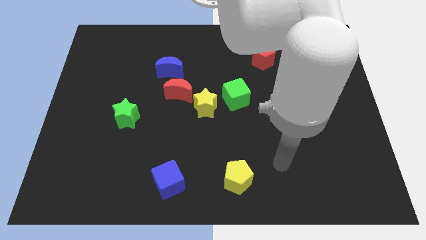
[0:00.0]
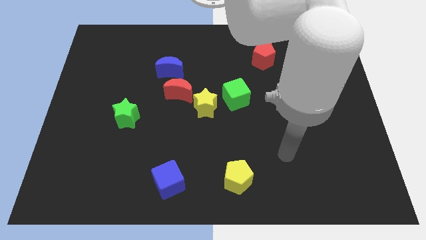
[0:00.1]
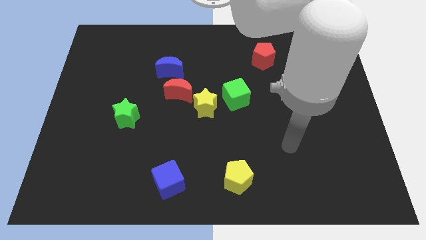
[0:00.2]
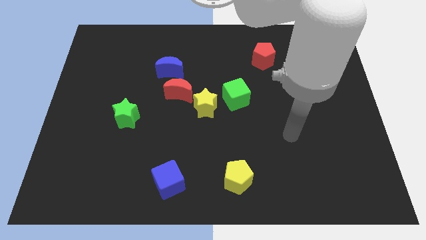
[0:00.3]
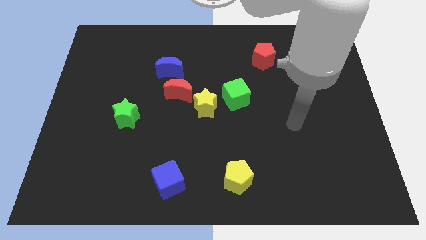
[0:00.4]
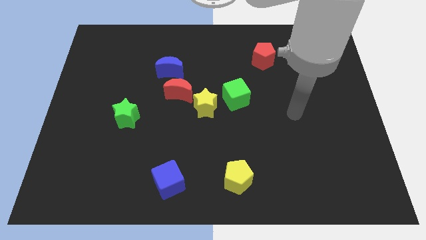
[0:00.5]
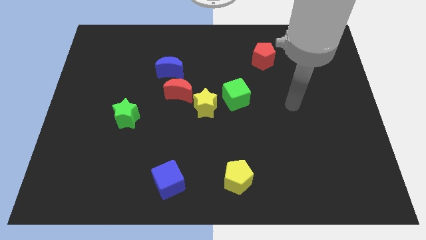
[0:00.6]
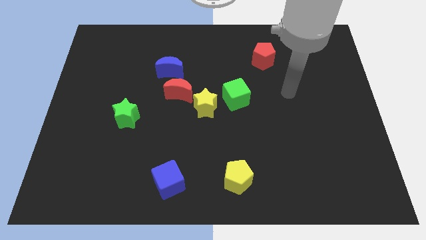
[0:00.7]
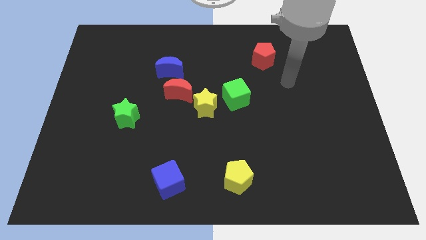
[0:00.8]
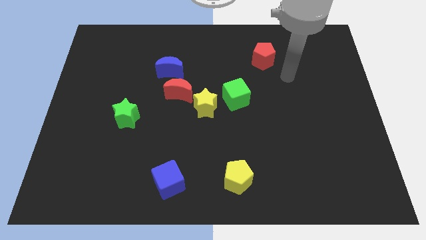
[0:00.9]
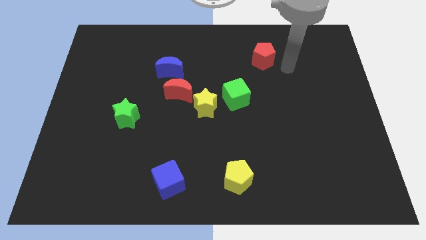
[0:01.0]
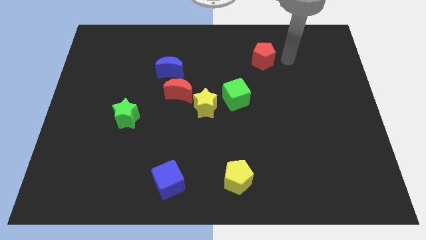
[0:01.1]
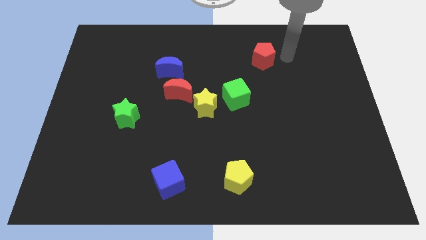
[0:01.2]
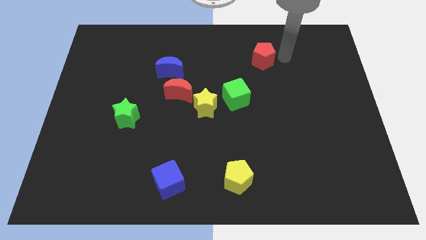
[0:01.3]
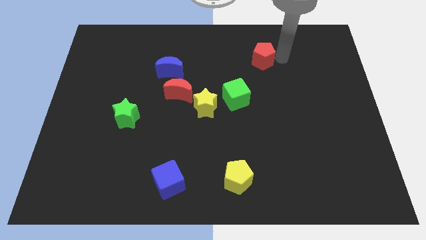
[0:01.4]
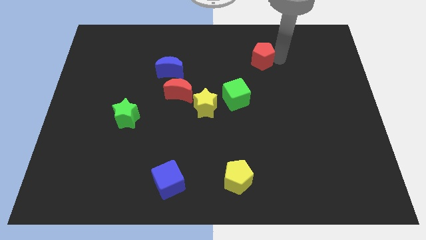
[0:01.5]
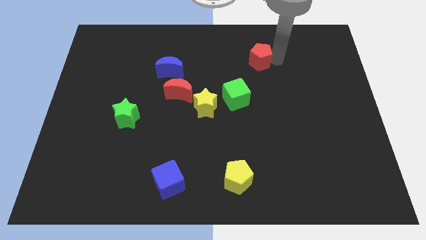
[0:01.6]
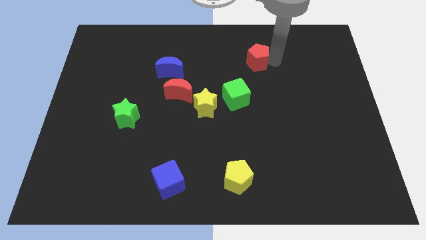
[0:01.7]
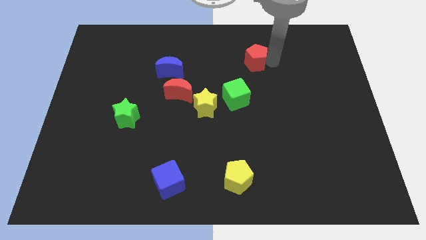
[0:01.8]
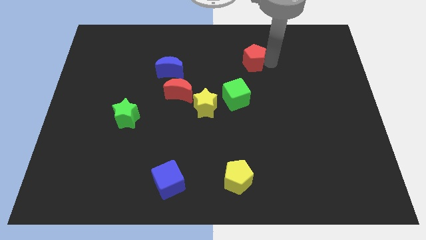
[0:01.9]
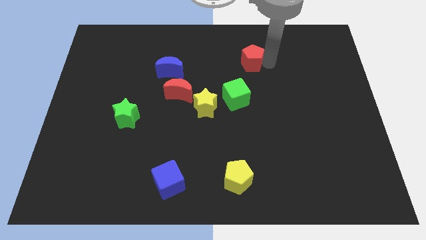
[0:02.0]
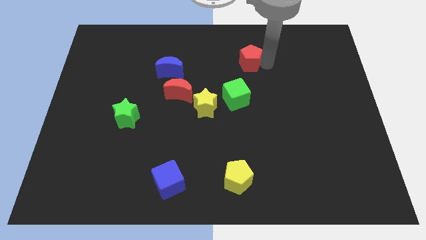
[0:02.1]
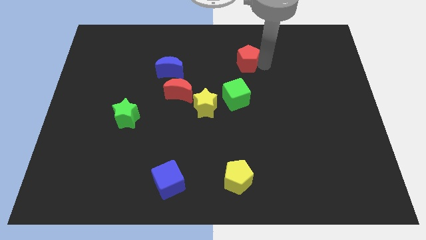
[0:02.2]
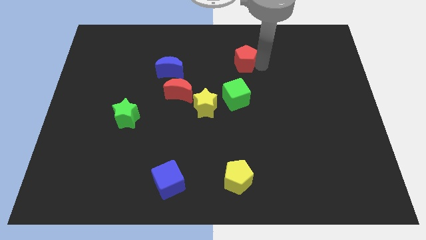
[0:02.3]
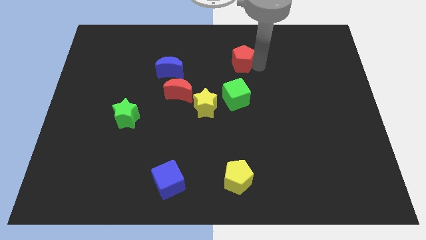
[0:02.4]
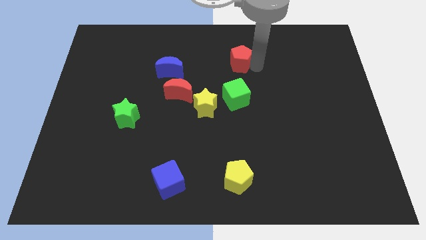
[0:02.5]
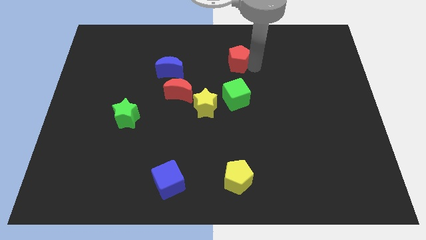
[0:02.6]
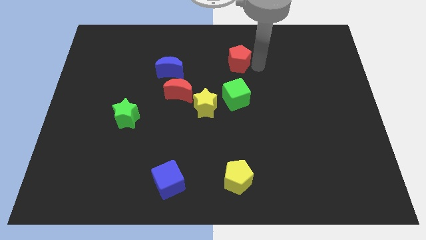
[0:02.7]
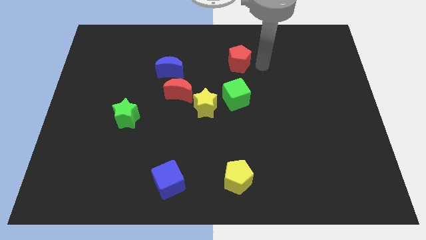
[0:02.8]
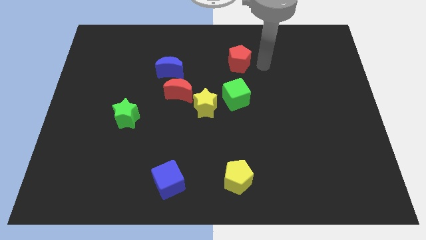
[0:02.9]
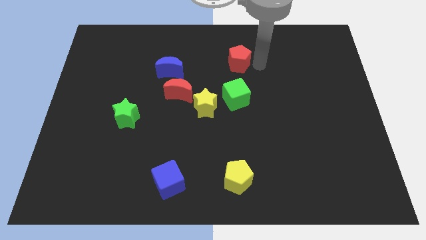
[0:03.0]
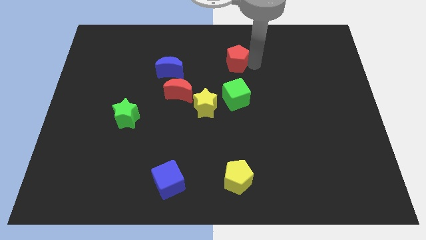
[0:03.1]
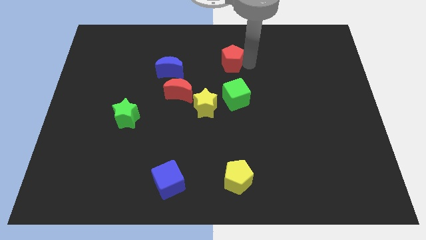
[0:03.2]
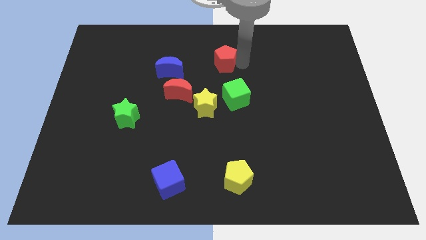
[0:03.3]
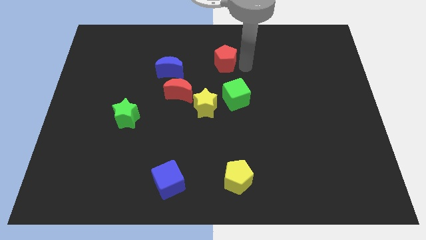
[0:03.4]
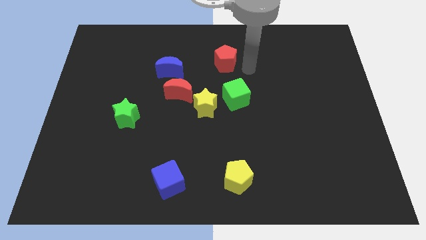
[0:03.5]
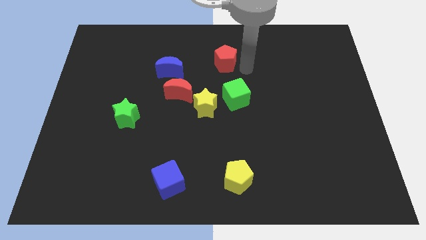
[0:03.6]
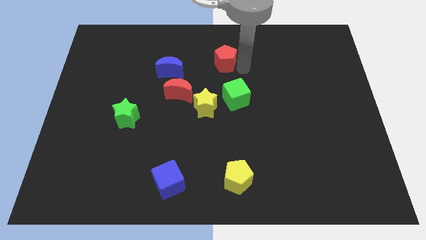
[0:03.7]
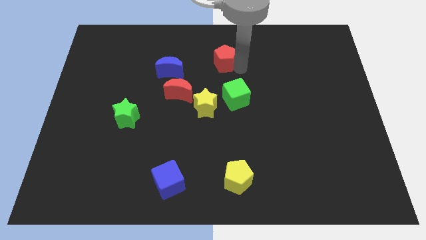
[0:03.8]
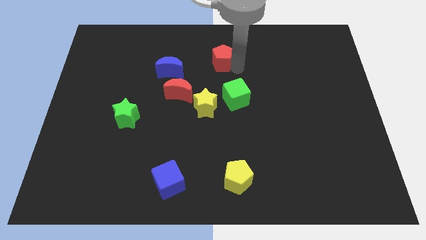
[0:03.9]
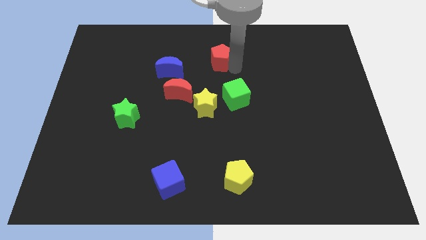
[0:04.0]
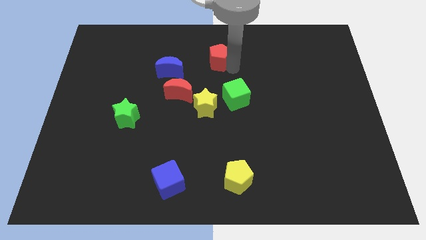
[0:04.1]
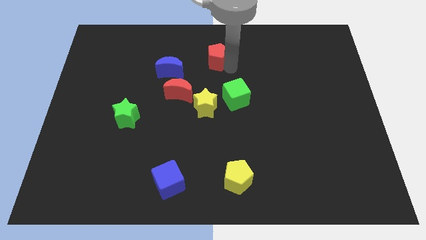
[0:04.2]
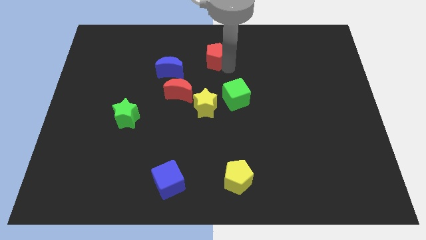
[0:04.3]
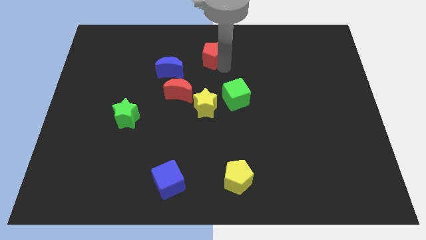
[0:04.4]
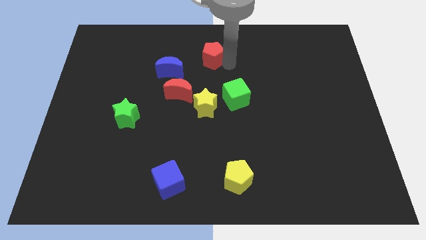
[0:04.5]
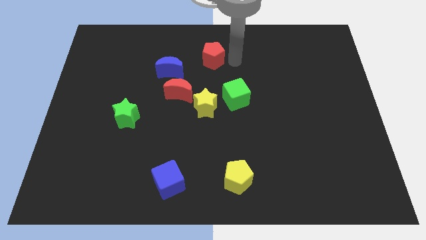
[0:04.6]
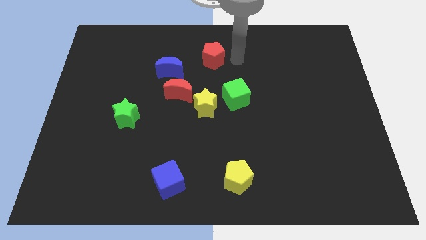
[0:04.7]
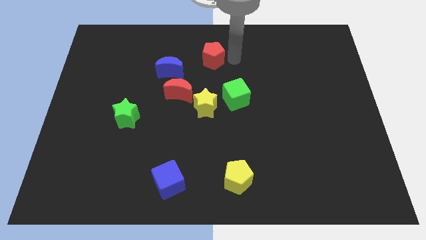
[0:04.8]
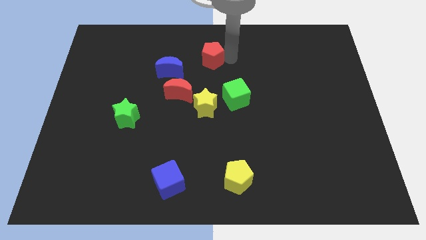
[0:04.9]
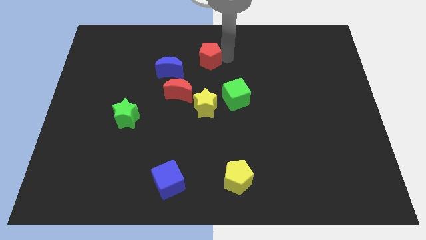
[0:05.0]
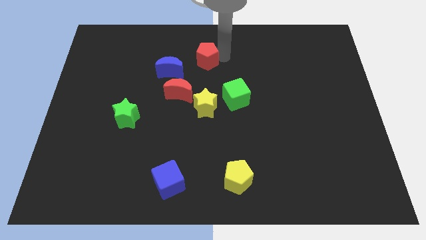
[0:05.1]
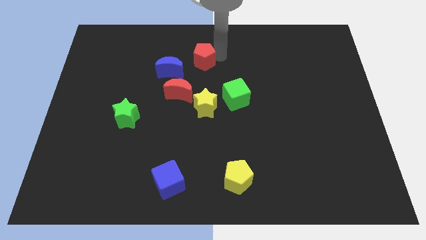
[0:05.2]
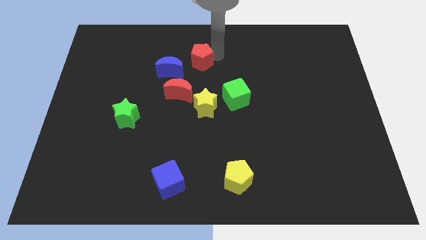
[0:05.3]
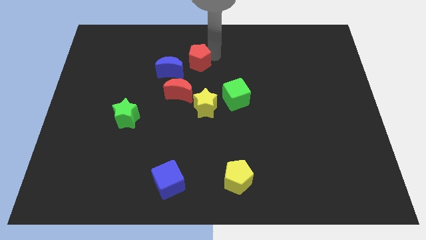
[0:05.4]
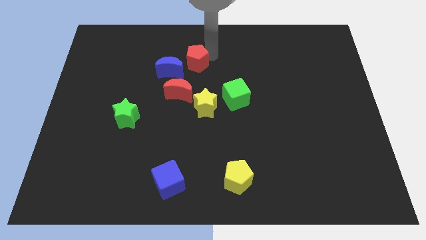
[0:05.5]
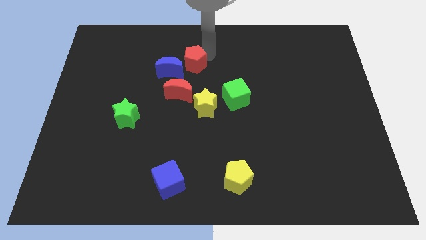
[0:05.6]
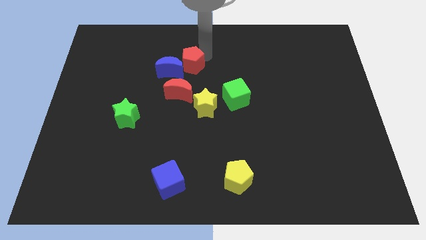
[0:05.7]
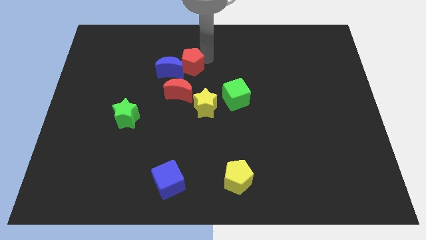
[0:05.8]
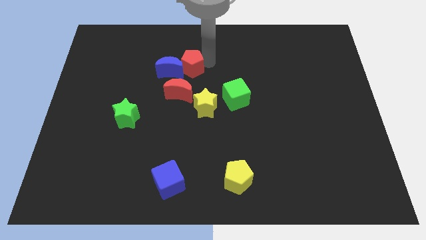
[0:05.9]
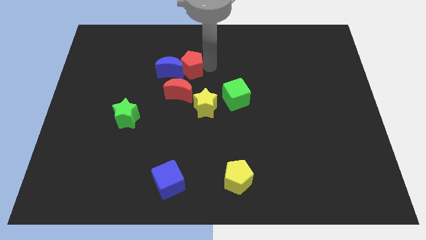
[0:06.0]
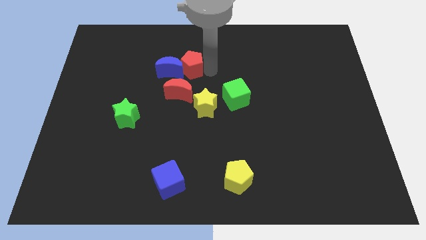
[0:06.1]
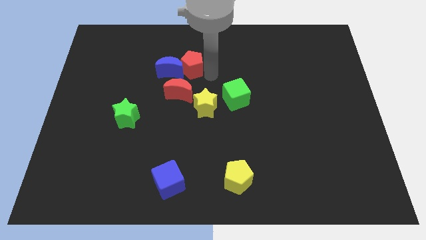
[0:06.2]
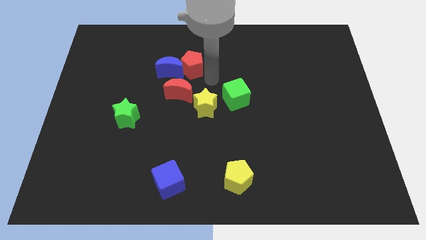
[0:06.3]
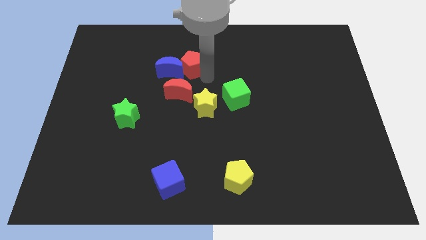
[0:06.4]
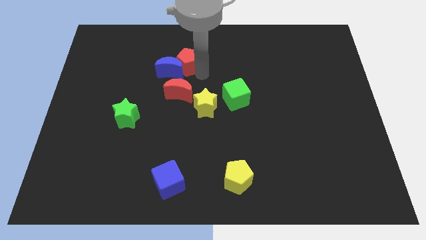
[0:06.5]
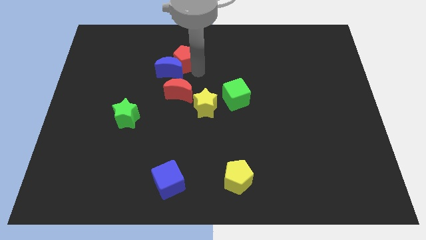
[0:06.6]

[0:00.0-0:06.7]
slide the red pentagon to the left

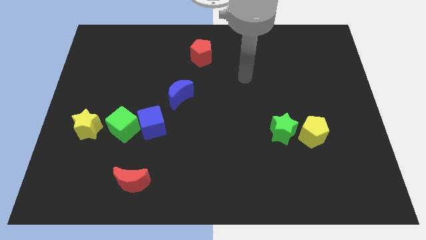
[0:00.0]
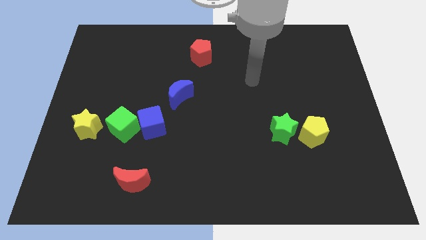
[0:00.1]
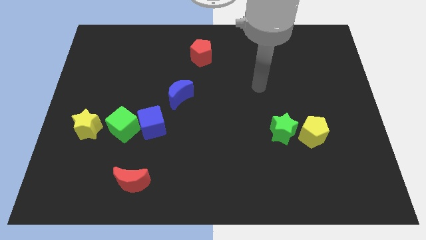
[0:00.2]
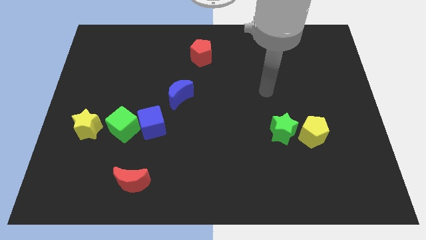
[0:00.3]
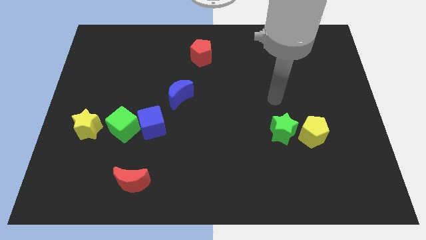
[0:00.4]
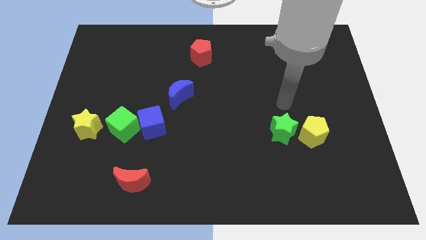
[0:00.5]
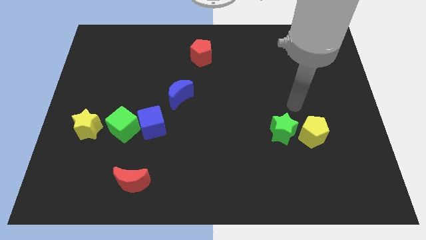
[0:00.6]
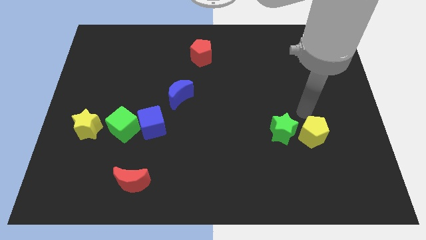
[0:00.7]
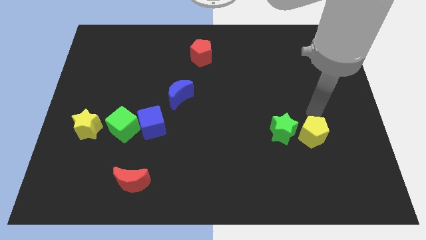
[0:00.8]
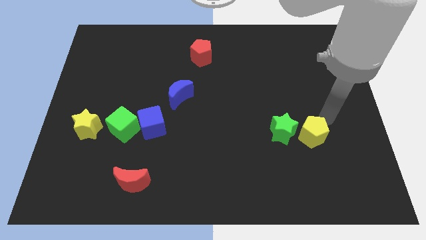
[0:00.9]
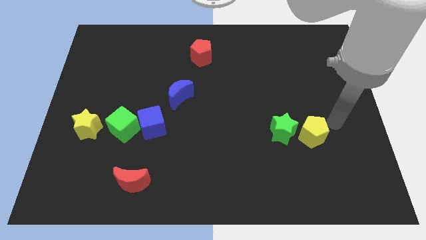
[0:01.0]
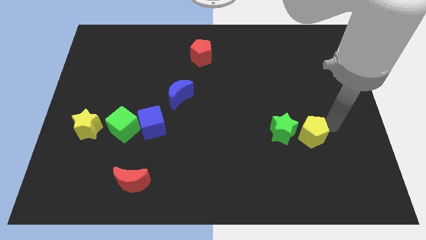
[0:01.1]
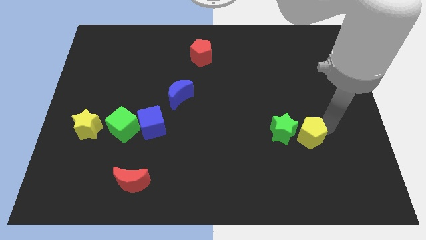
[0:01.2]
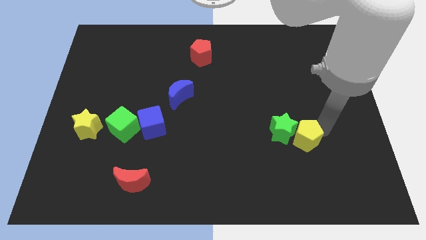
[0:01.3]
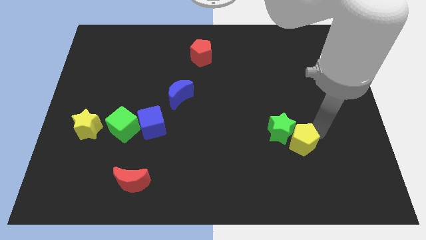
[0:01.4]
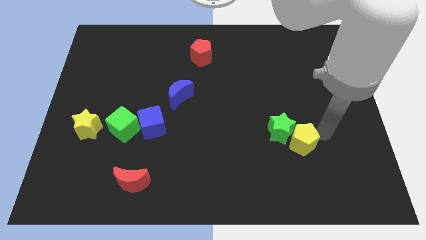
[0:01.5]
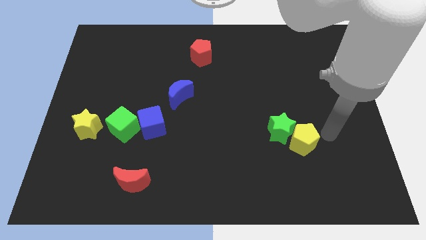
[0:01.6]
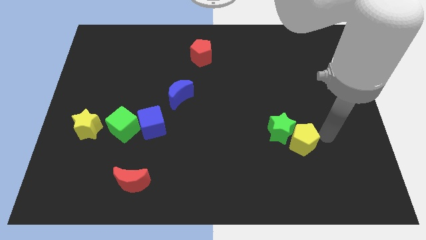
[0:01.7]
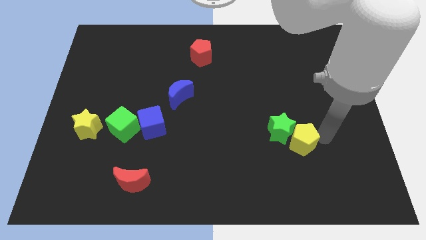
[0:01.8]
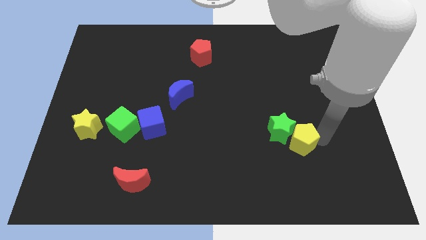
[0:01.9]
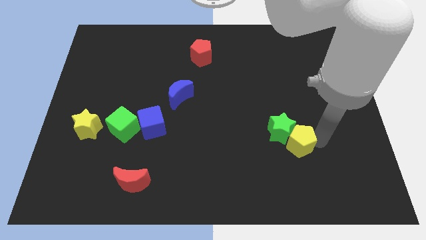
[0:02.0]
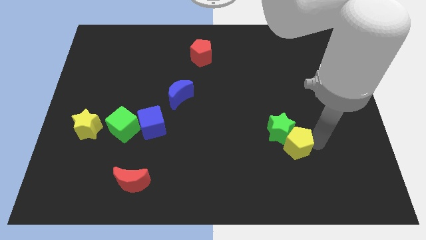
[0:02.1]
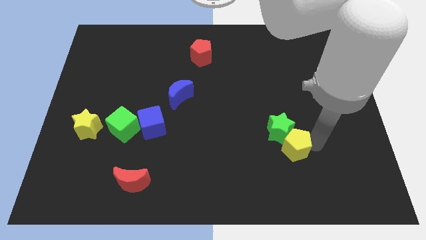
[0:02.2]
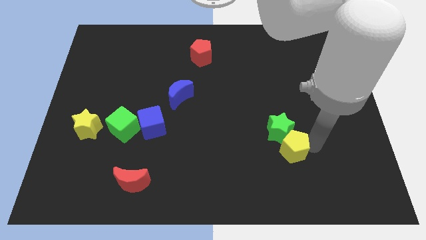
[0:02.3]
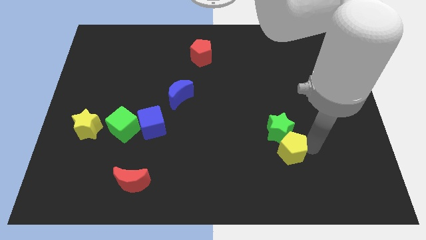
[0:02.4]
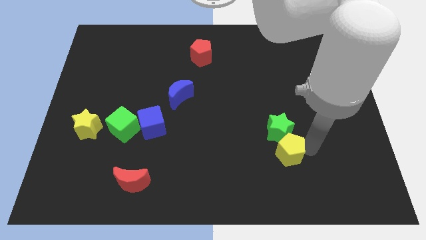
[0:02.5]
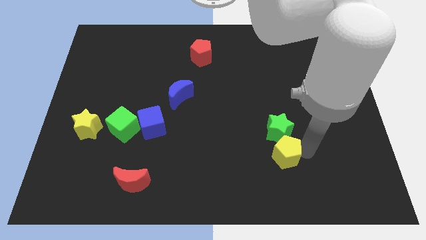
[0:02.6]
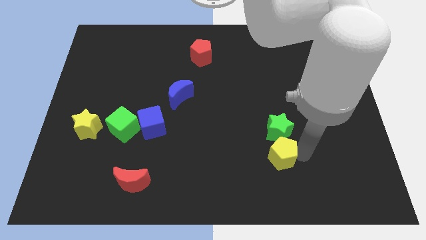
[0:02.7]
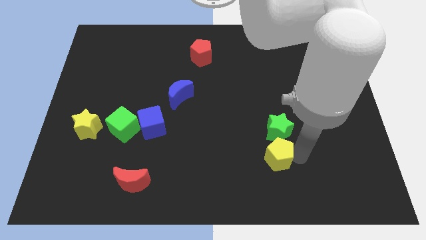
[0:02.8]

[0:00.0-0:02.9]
move the yellow pentagon left somewhat
